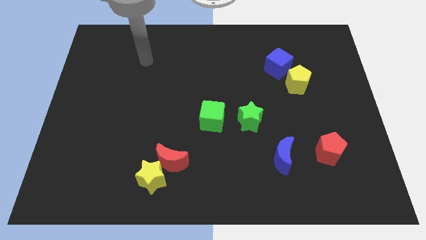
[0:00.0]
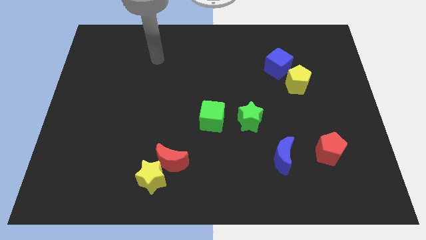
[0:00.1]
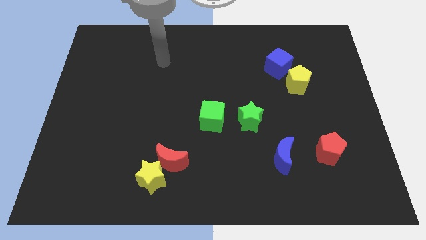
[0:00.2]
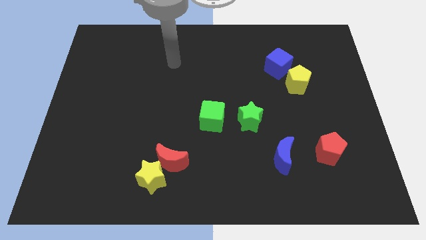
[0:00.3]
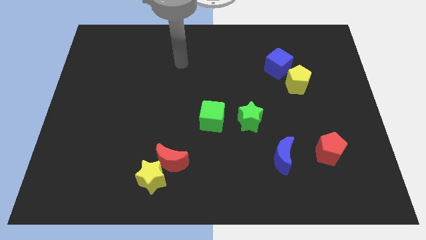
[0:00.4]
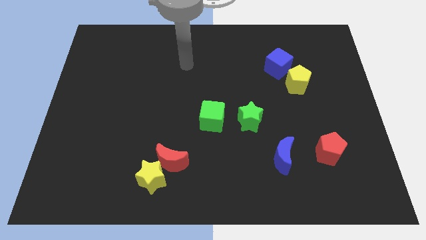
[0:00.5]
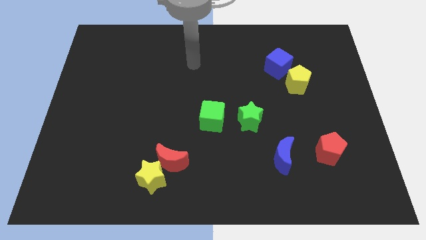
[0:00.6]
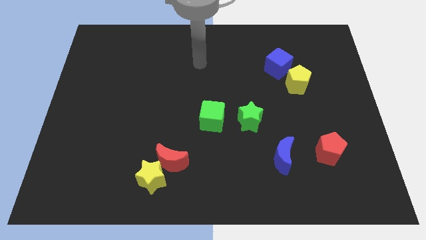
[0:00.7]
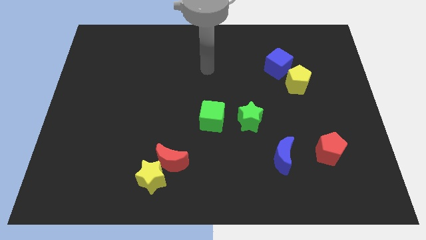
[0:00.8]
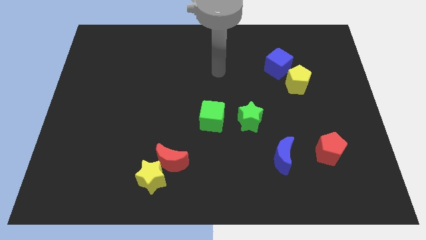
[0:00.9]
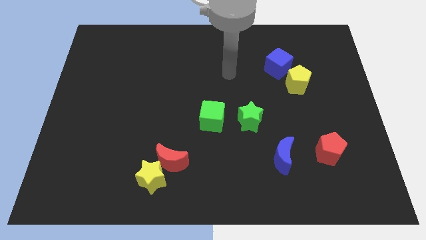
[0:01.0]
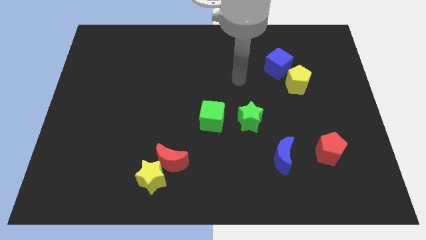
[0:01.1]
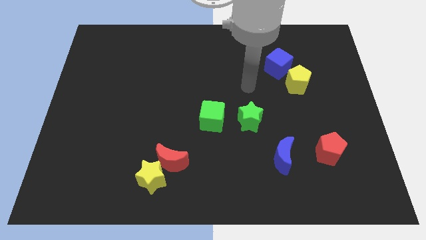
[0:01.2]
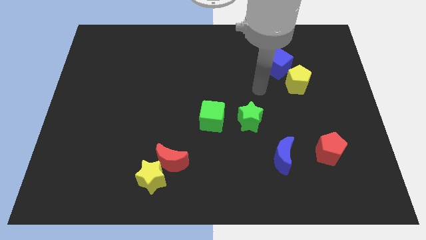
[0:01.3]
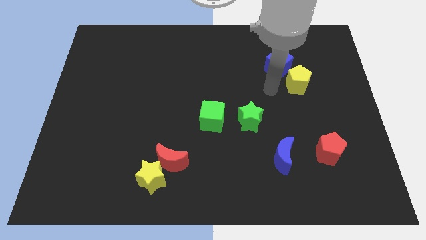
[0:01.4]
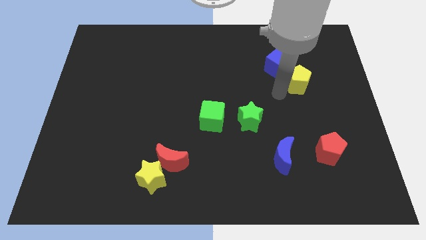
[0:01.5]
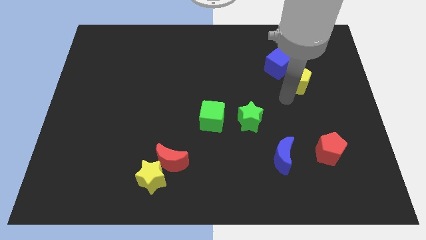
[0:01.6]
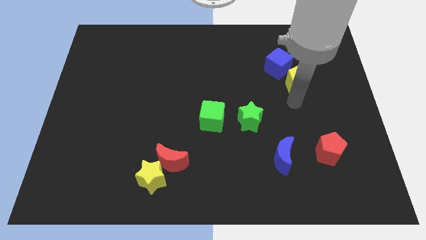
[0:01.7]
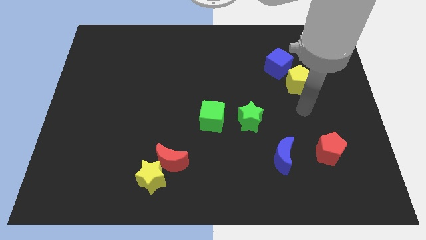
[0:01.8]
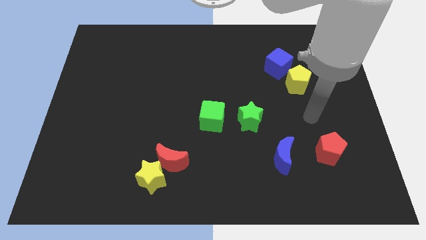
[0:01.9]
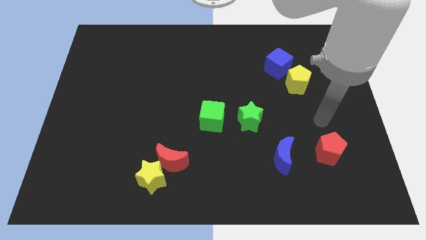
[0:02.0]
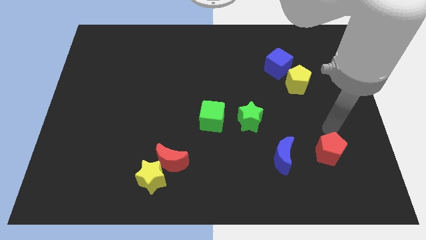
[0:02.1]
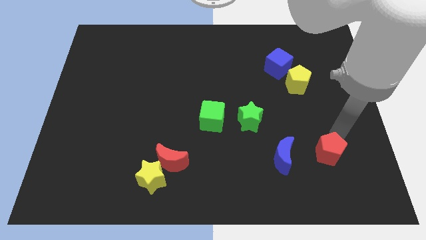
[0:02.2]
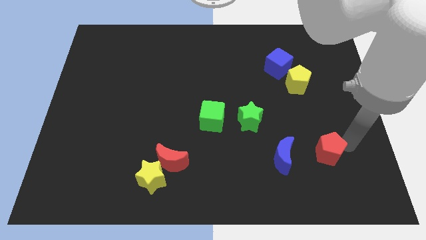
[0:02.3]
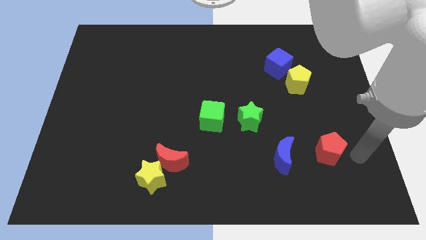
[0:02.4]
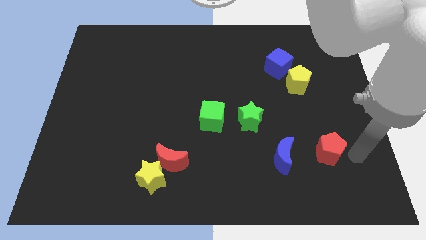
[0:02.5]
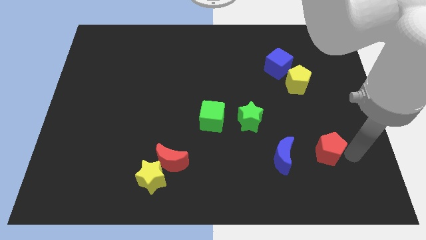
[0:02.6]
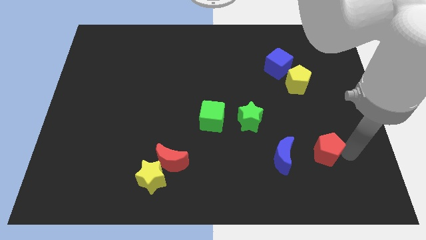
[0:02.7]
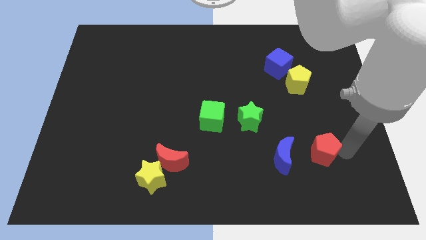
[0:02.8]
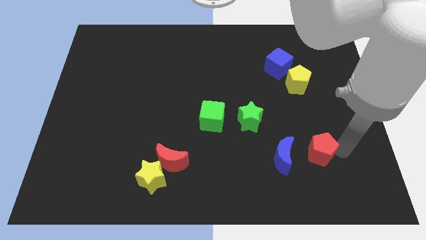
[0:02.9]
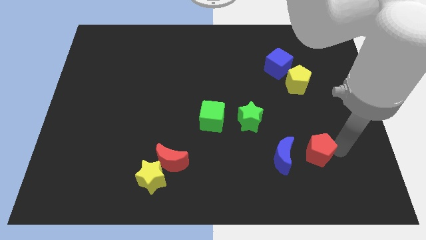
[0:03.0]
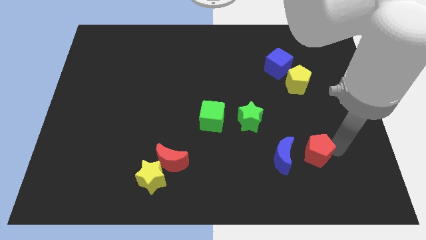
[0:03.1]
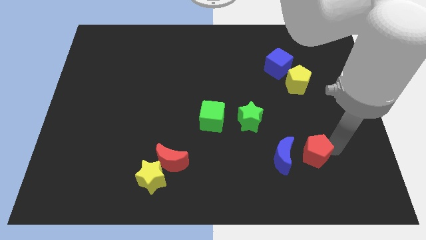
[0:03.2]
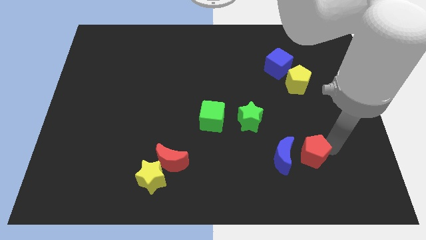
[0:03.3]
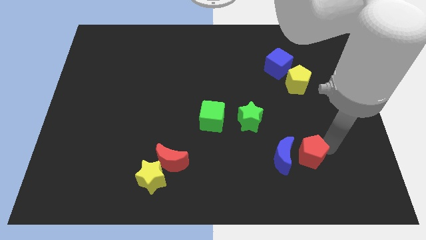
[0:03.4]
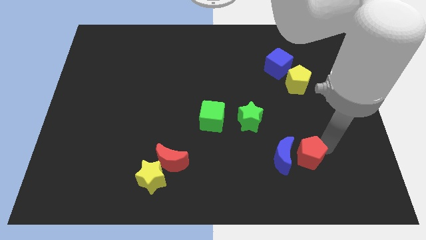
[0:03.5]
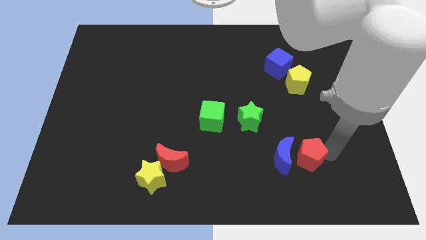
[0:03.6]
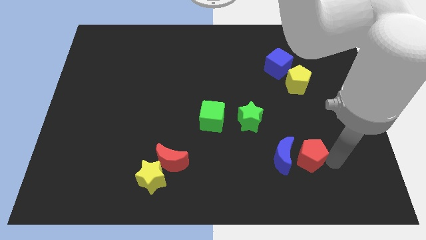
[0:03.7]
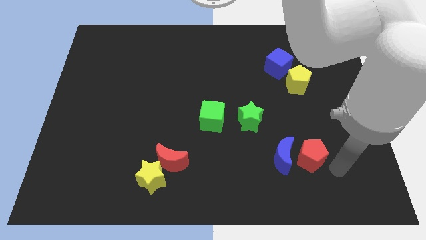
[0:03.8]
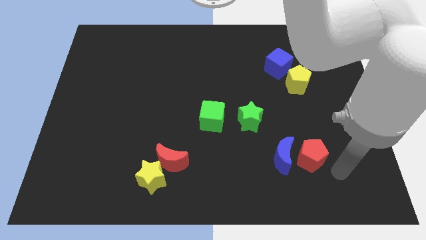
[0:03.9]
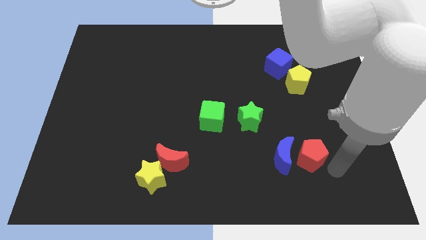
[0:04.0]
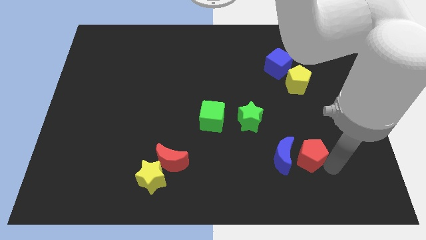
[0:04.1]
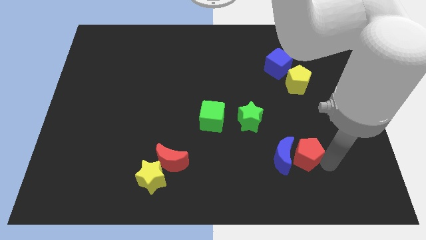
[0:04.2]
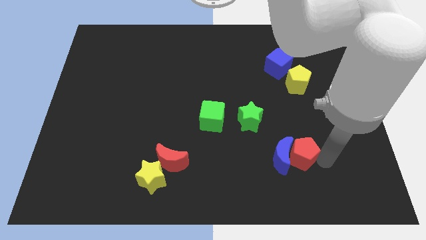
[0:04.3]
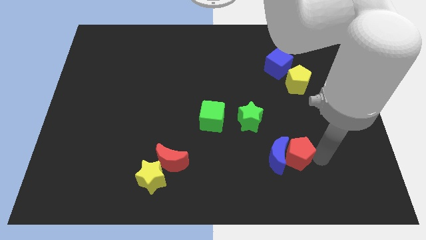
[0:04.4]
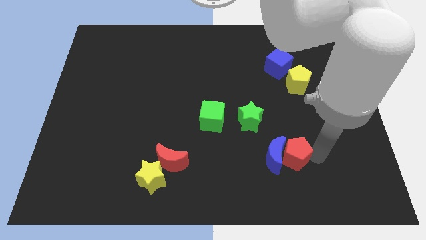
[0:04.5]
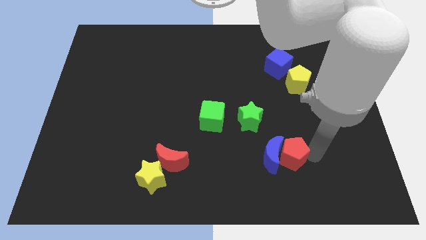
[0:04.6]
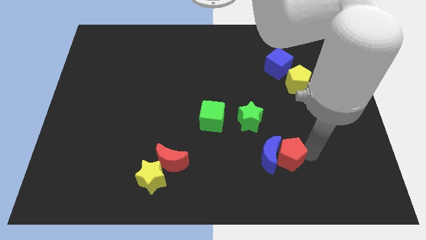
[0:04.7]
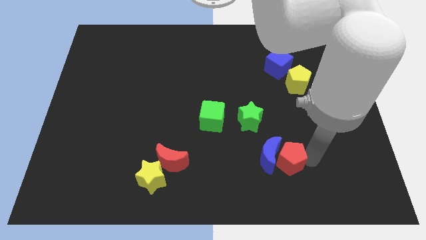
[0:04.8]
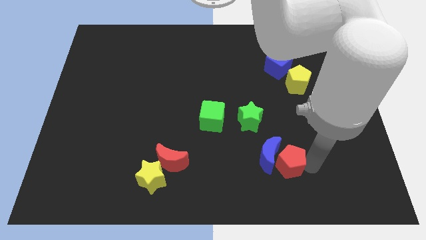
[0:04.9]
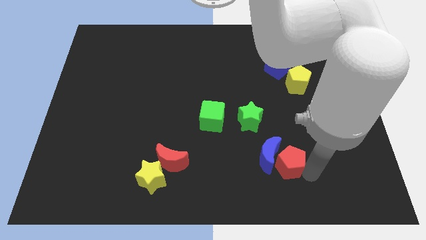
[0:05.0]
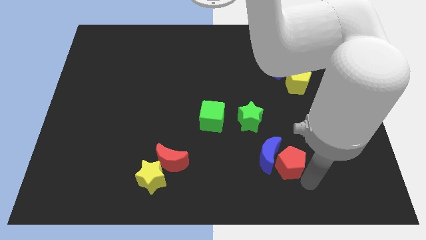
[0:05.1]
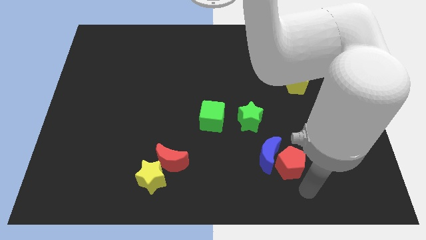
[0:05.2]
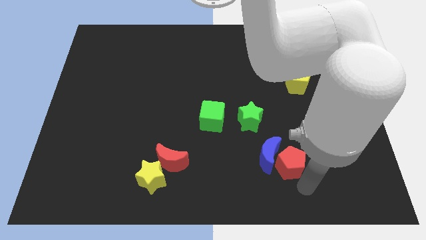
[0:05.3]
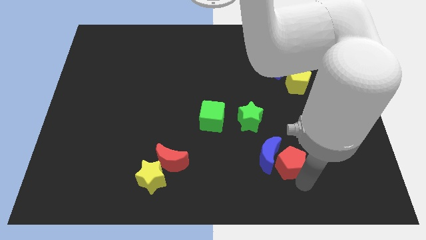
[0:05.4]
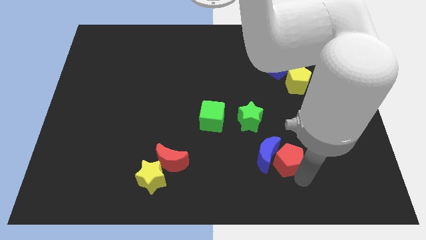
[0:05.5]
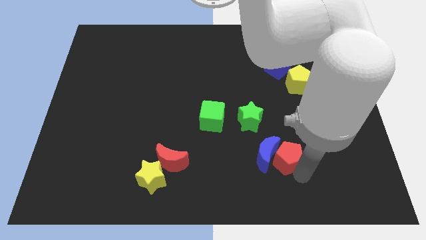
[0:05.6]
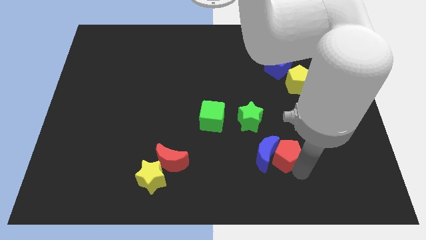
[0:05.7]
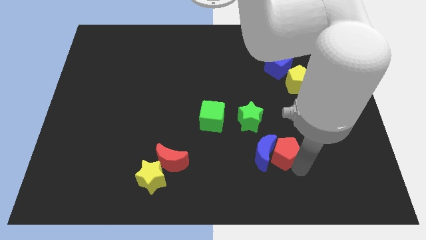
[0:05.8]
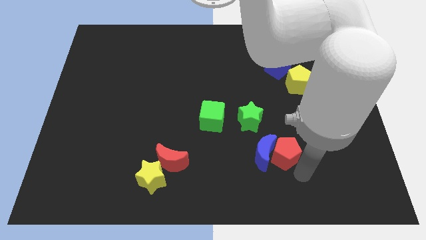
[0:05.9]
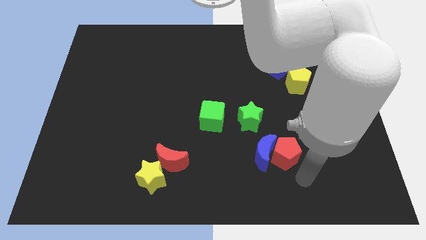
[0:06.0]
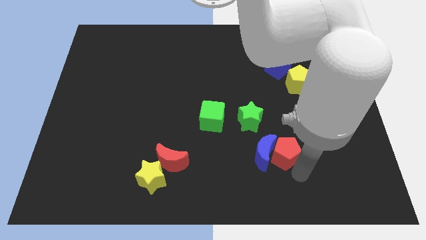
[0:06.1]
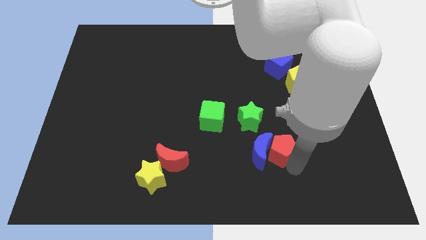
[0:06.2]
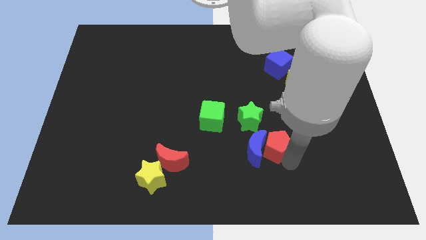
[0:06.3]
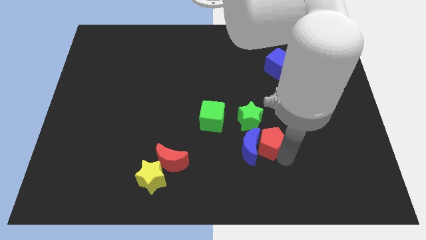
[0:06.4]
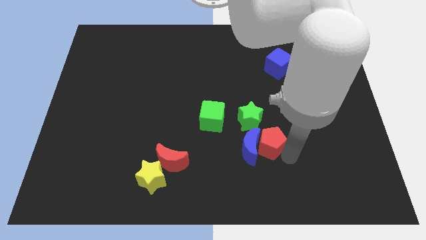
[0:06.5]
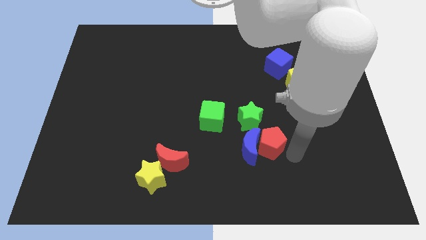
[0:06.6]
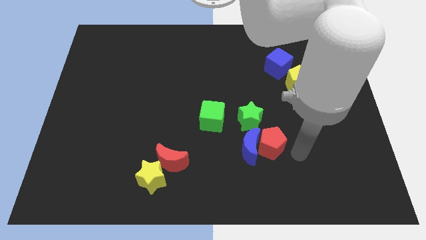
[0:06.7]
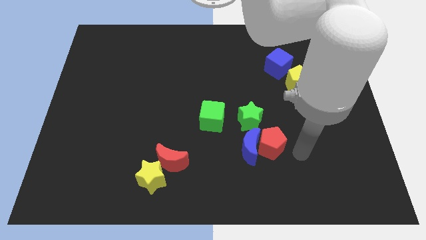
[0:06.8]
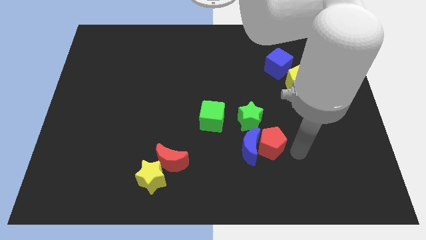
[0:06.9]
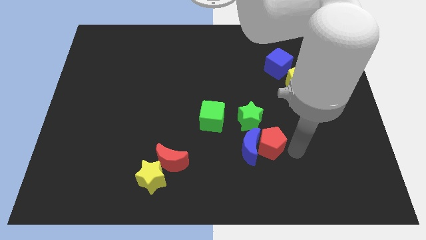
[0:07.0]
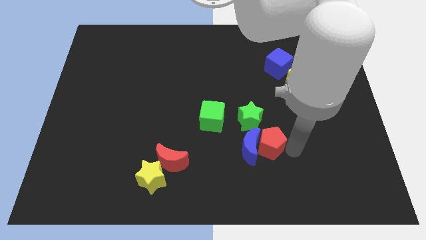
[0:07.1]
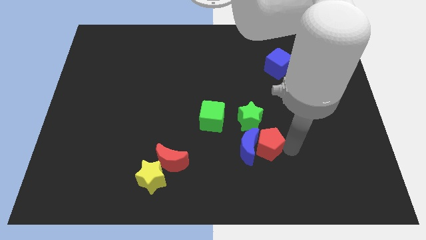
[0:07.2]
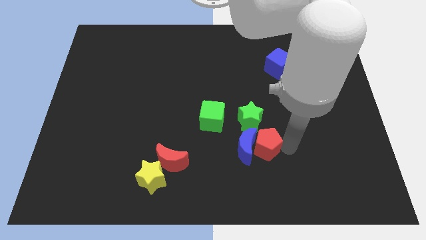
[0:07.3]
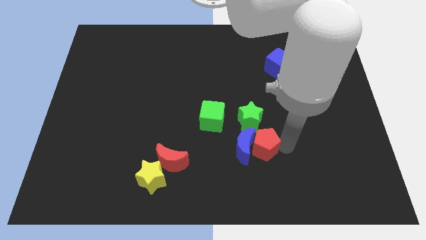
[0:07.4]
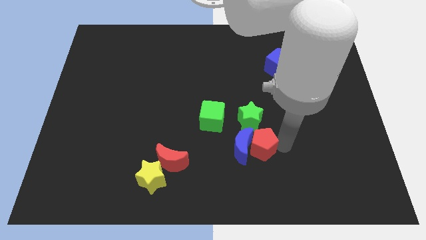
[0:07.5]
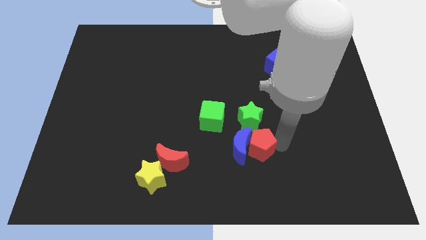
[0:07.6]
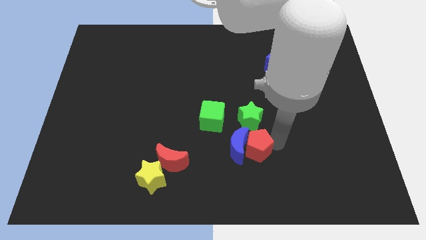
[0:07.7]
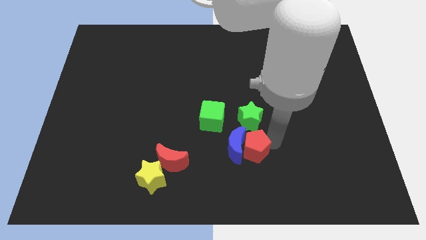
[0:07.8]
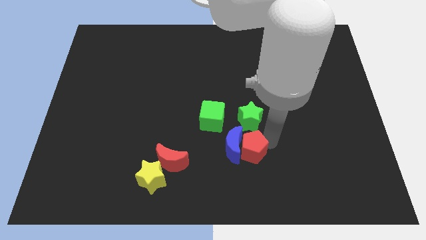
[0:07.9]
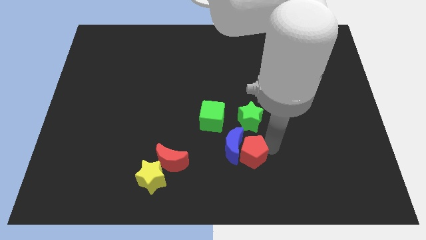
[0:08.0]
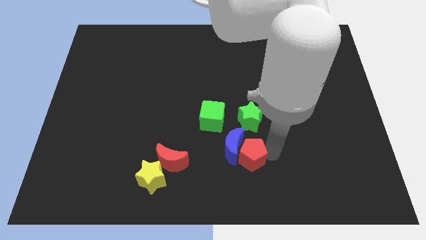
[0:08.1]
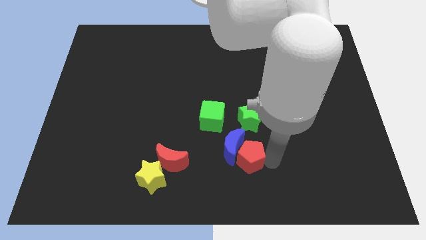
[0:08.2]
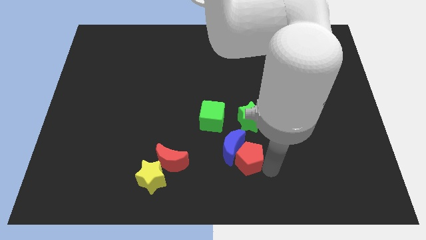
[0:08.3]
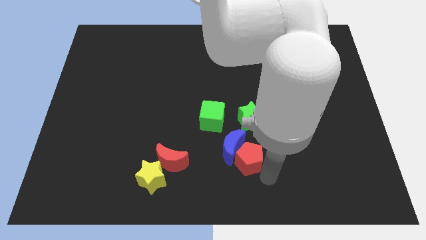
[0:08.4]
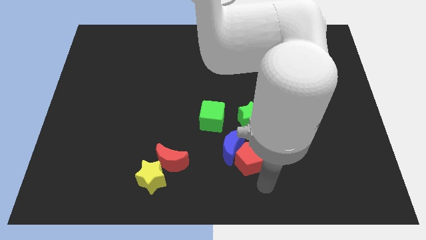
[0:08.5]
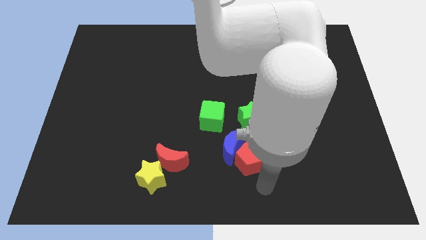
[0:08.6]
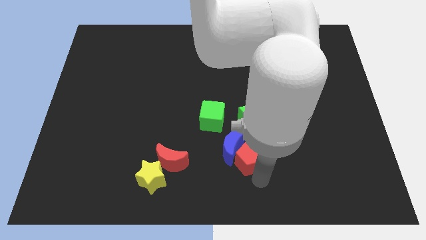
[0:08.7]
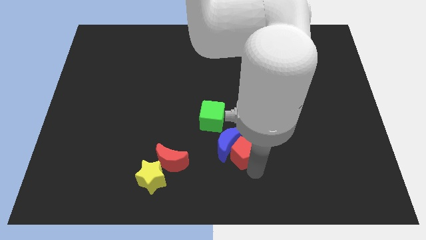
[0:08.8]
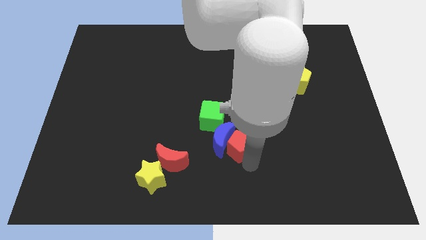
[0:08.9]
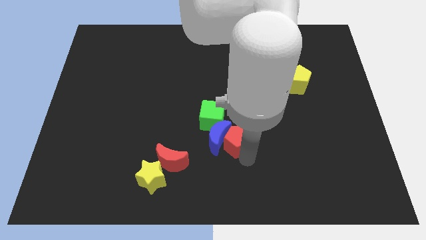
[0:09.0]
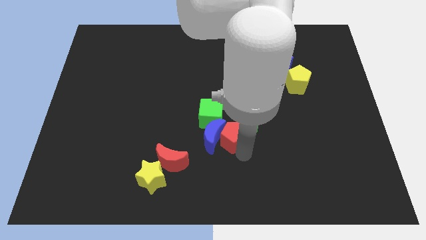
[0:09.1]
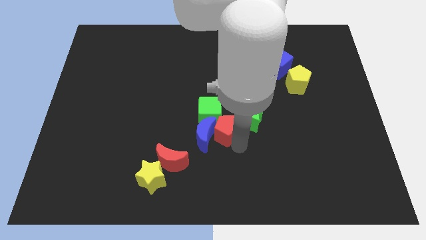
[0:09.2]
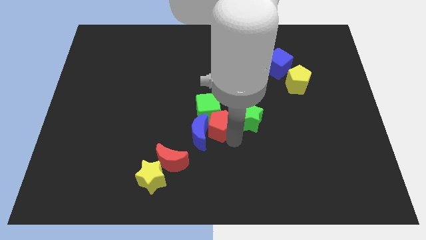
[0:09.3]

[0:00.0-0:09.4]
slide the red pentagon to the green cube
